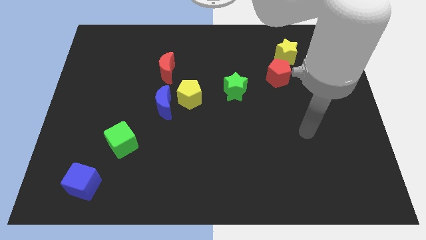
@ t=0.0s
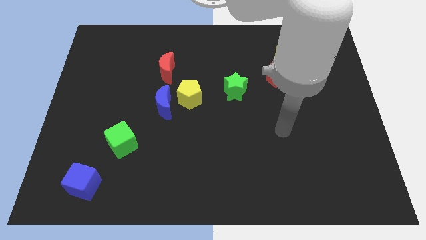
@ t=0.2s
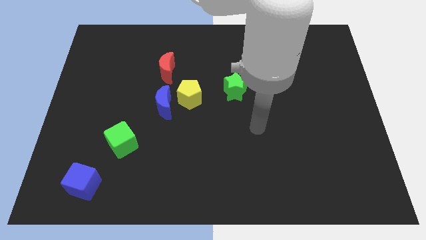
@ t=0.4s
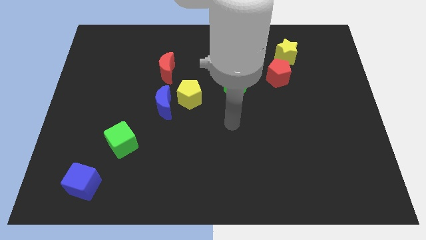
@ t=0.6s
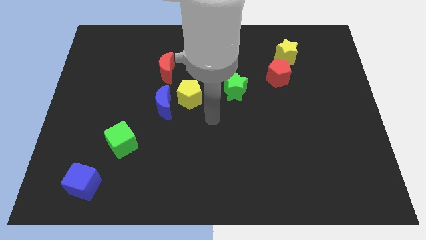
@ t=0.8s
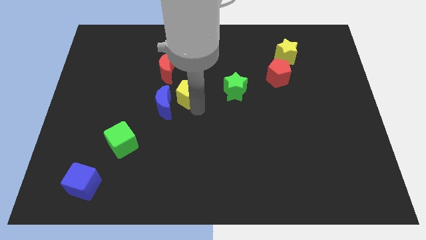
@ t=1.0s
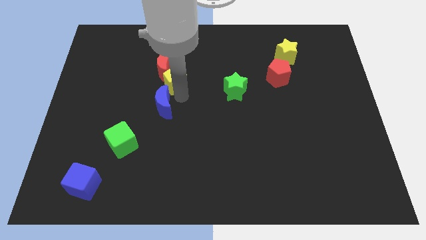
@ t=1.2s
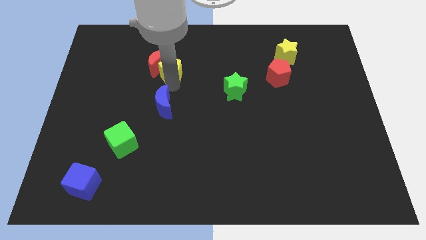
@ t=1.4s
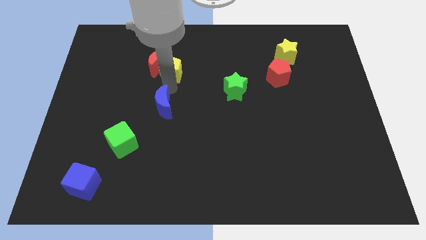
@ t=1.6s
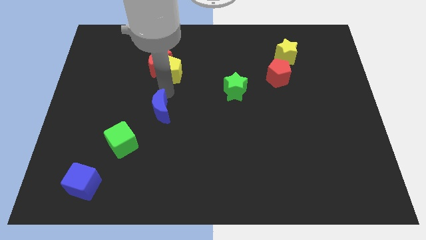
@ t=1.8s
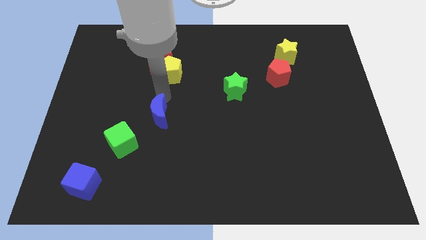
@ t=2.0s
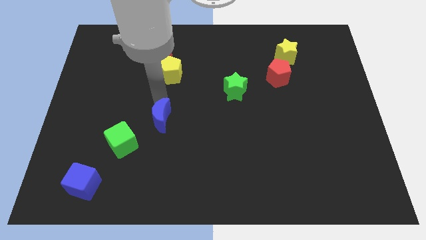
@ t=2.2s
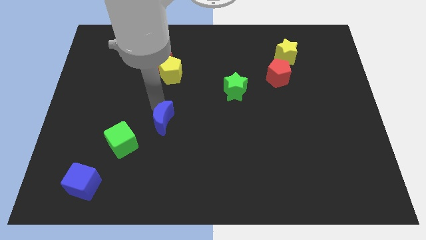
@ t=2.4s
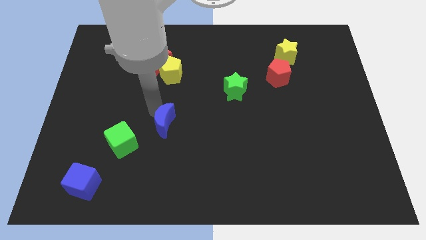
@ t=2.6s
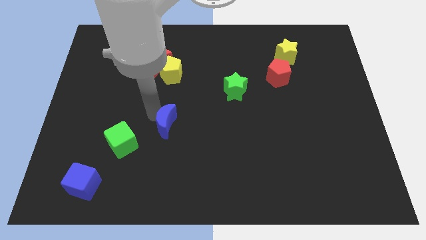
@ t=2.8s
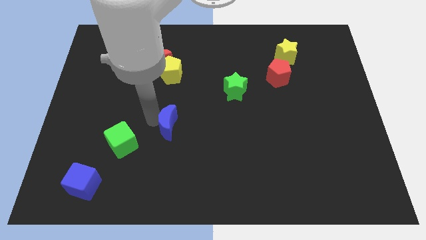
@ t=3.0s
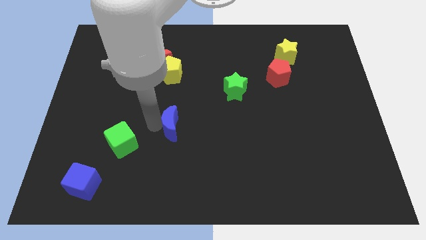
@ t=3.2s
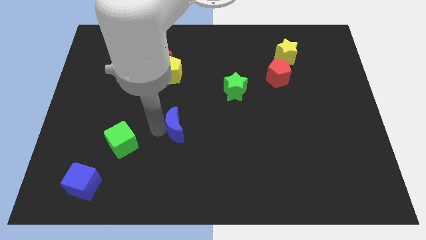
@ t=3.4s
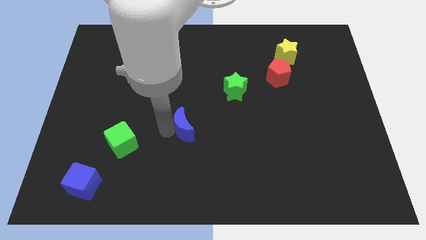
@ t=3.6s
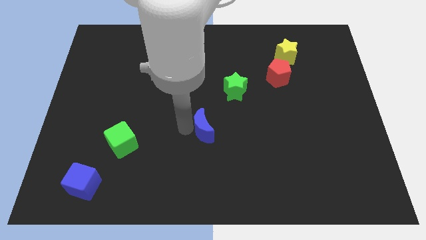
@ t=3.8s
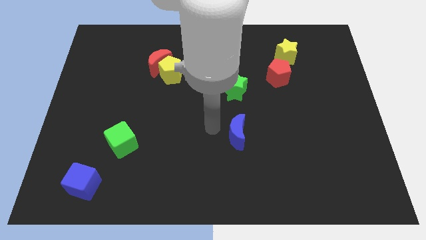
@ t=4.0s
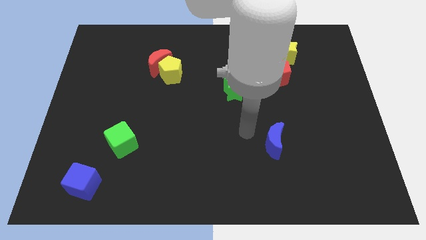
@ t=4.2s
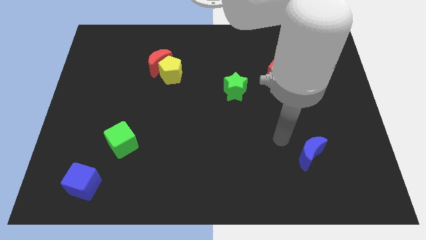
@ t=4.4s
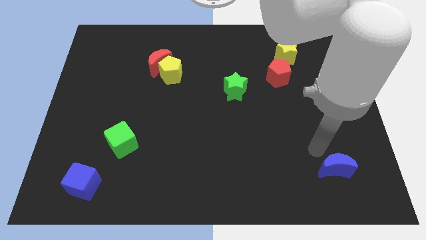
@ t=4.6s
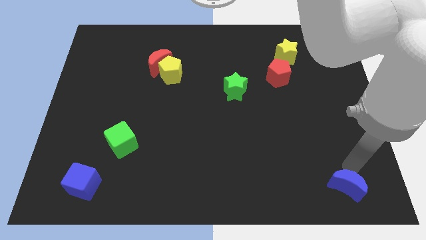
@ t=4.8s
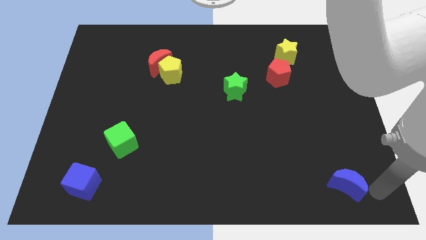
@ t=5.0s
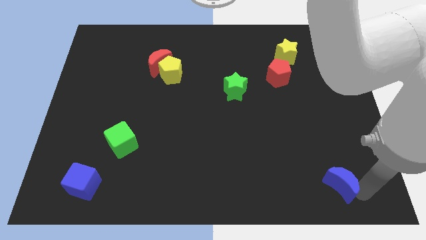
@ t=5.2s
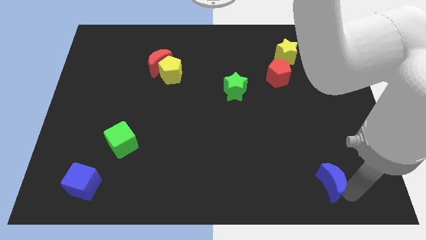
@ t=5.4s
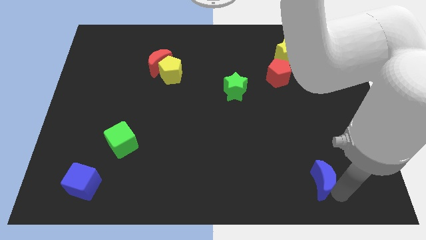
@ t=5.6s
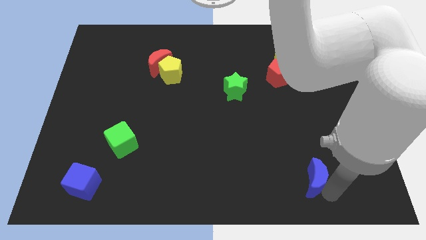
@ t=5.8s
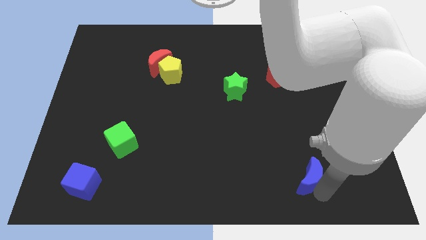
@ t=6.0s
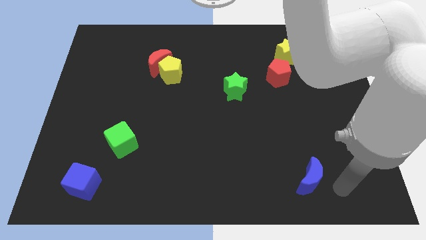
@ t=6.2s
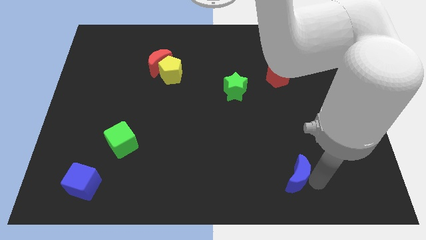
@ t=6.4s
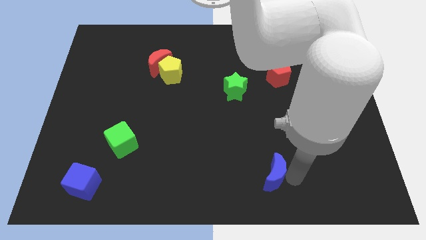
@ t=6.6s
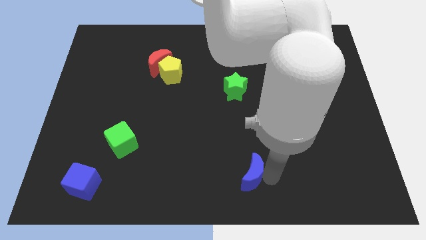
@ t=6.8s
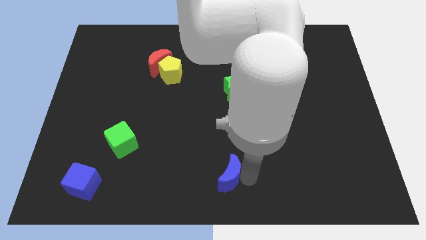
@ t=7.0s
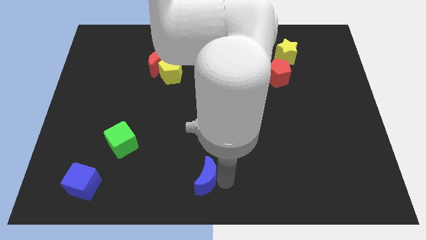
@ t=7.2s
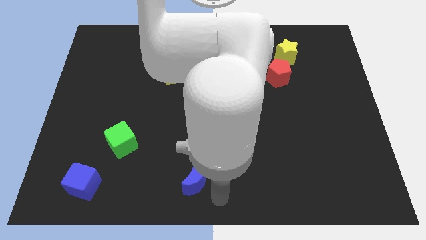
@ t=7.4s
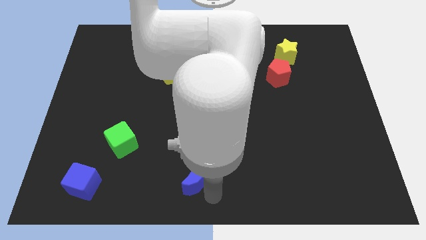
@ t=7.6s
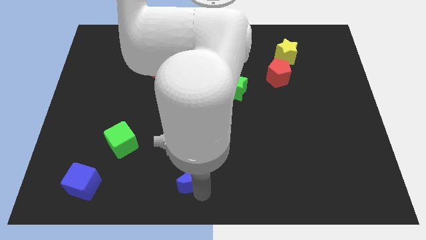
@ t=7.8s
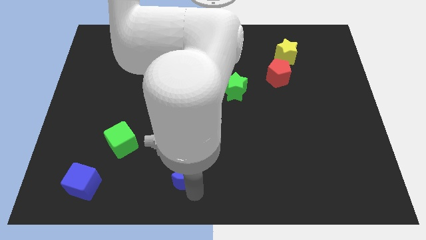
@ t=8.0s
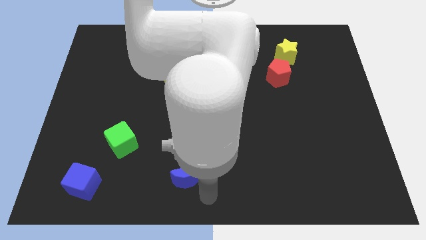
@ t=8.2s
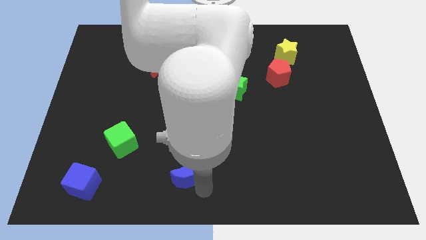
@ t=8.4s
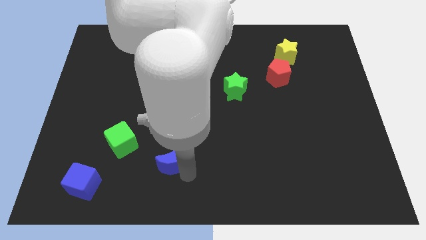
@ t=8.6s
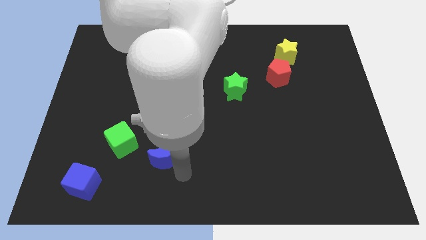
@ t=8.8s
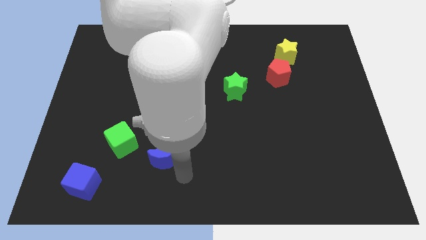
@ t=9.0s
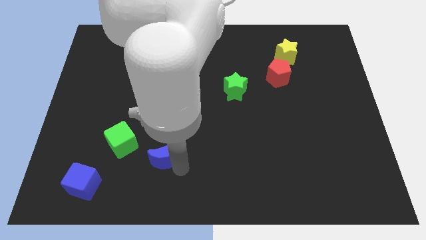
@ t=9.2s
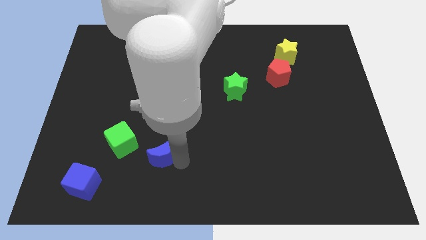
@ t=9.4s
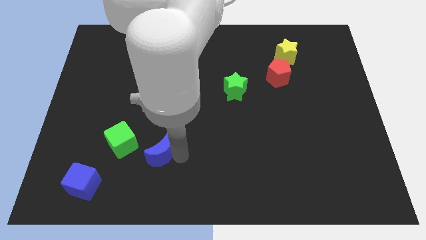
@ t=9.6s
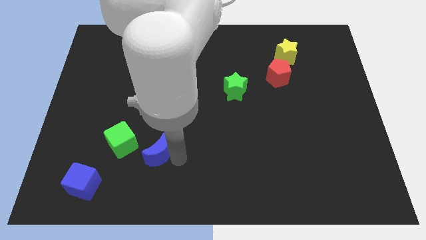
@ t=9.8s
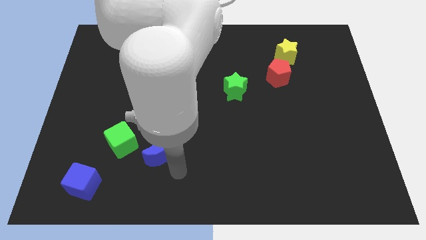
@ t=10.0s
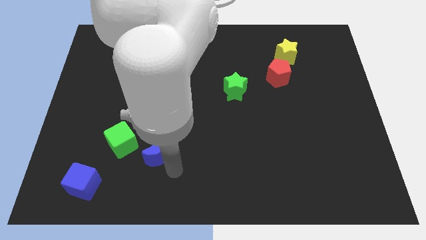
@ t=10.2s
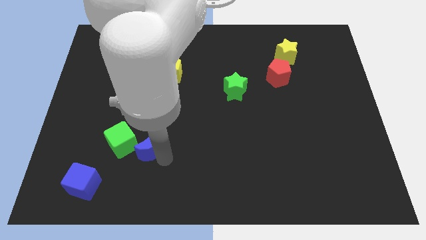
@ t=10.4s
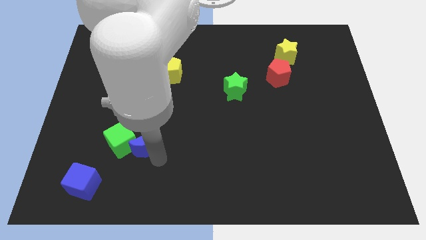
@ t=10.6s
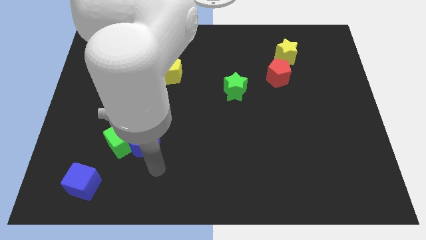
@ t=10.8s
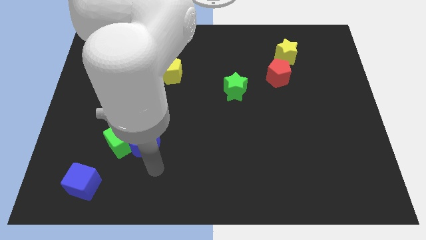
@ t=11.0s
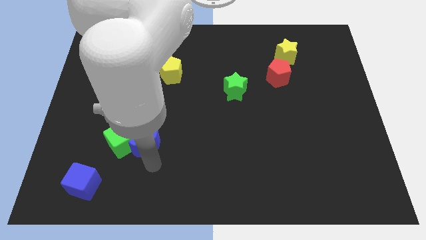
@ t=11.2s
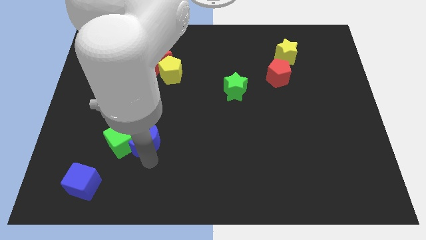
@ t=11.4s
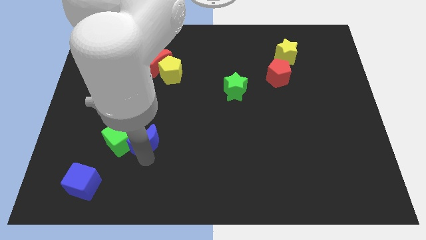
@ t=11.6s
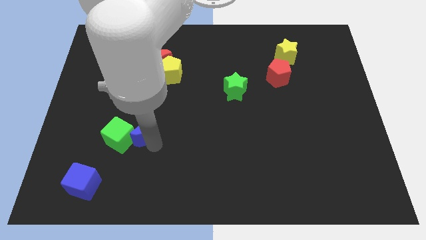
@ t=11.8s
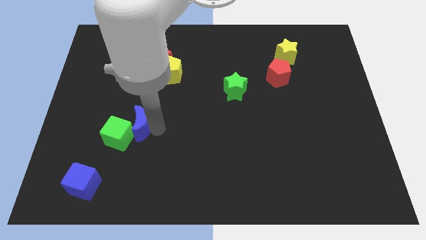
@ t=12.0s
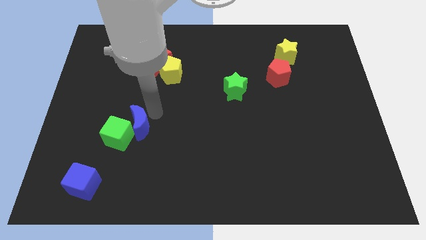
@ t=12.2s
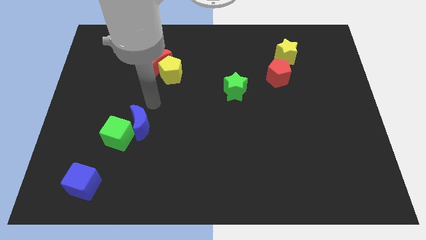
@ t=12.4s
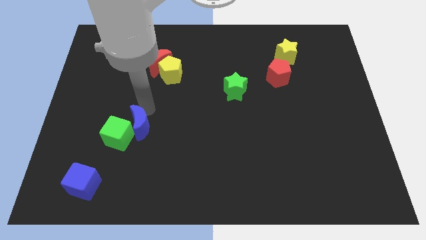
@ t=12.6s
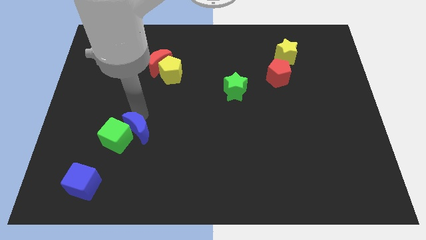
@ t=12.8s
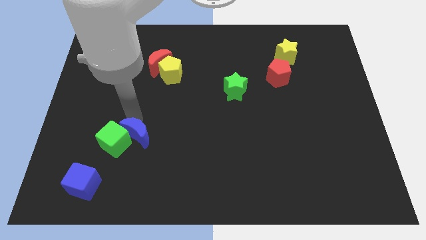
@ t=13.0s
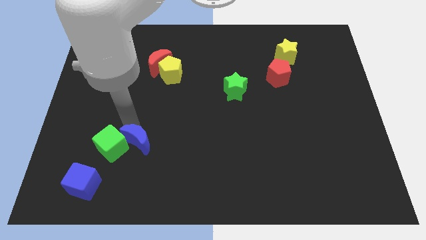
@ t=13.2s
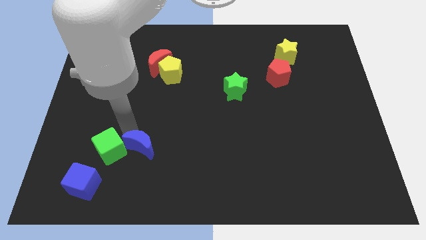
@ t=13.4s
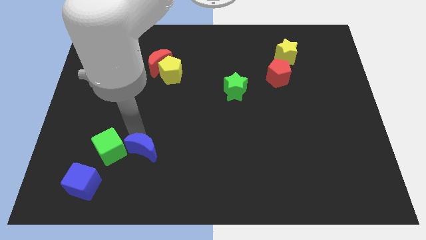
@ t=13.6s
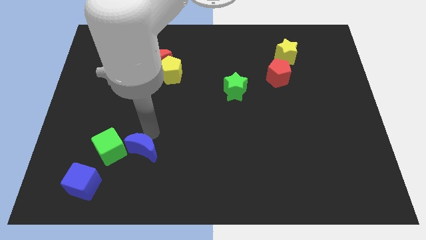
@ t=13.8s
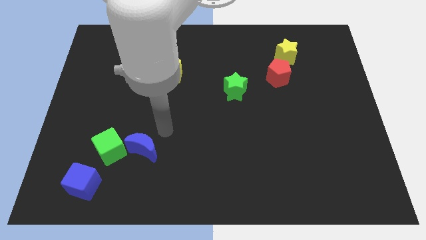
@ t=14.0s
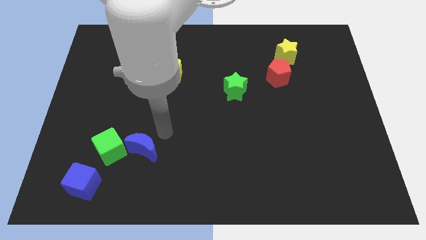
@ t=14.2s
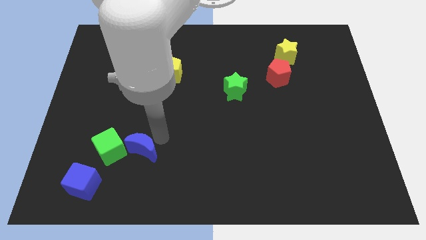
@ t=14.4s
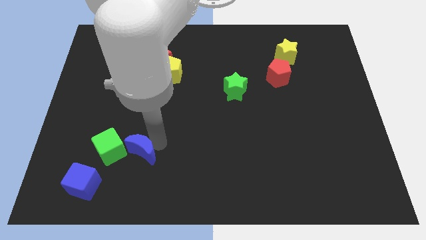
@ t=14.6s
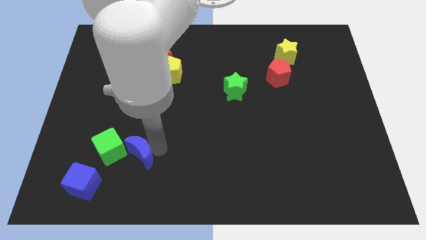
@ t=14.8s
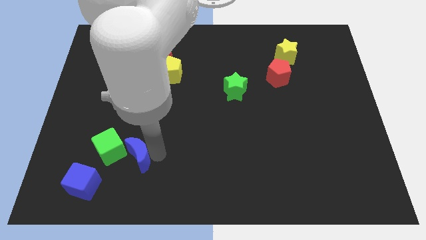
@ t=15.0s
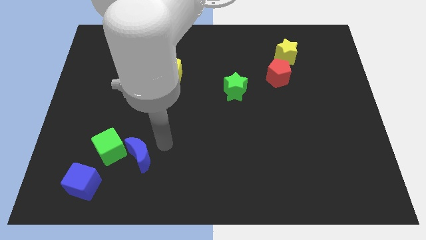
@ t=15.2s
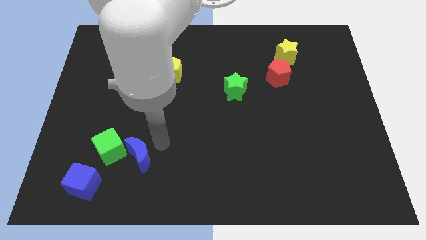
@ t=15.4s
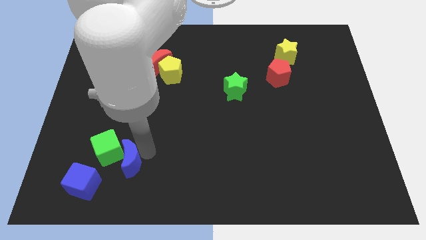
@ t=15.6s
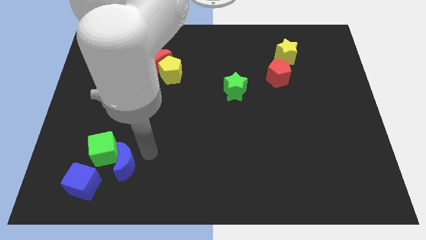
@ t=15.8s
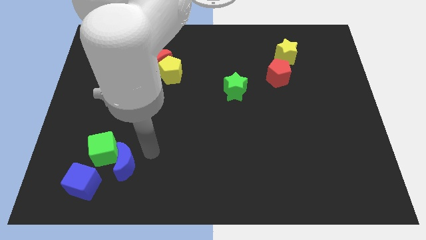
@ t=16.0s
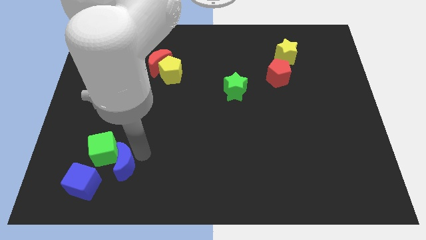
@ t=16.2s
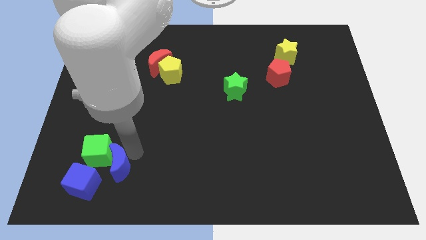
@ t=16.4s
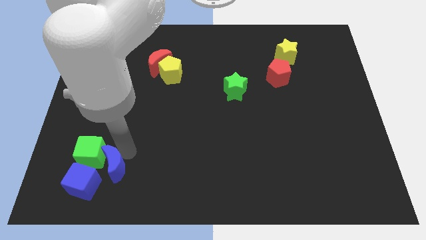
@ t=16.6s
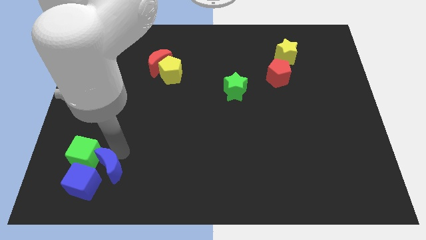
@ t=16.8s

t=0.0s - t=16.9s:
put the blue moon to the blue cube
